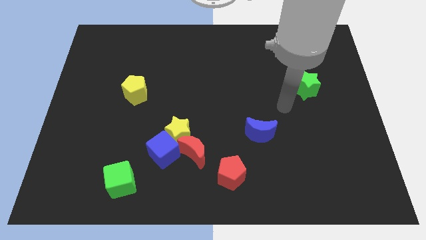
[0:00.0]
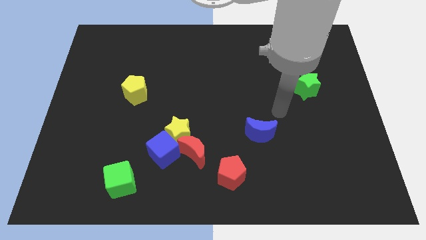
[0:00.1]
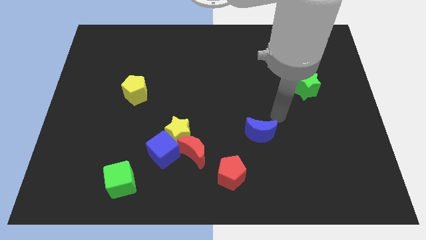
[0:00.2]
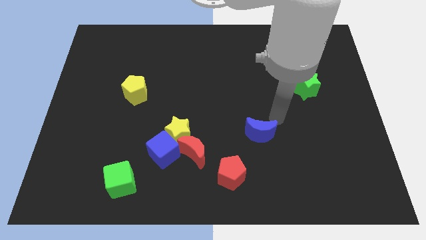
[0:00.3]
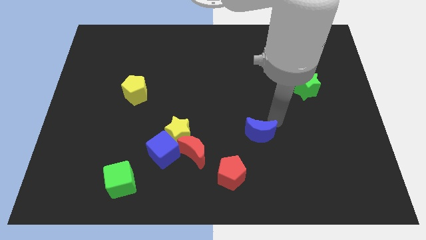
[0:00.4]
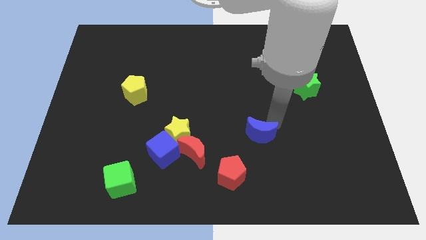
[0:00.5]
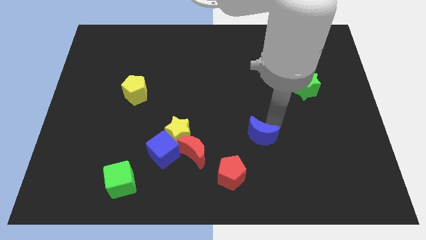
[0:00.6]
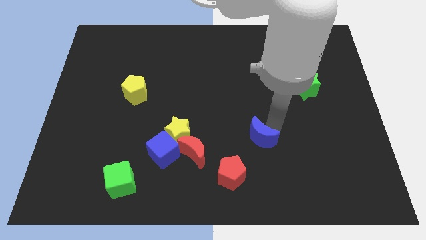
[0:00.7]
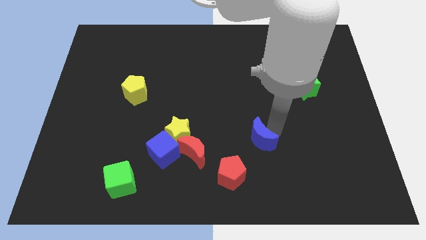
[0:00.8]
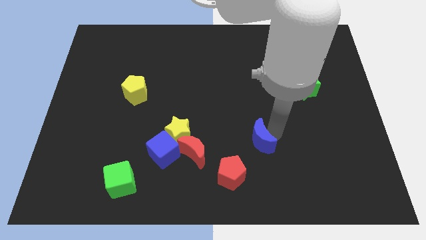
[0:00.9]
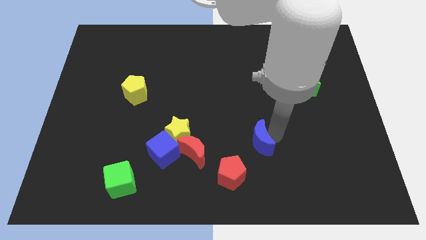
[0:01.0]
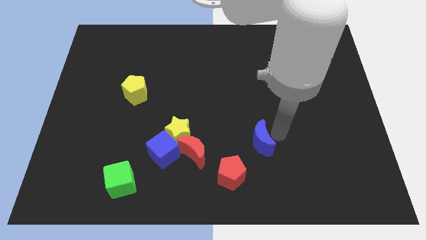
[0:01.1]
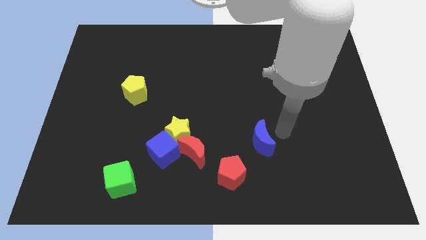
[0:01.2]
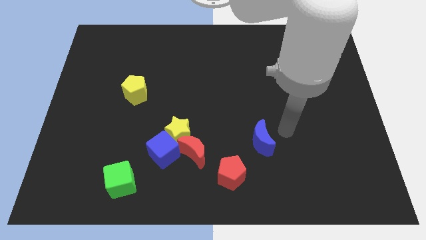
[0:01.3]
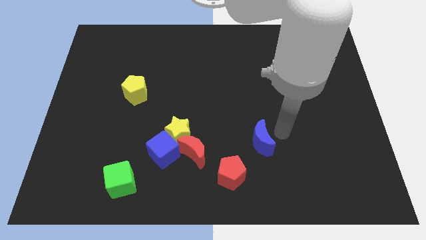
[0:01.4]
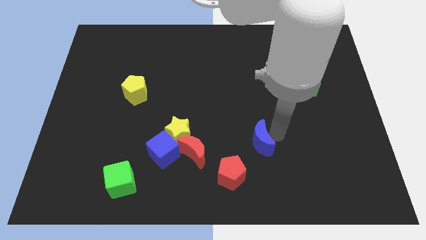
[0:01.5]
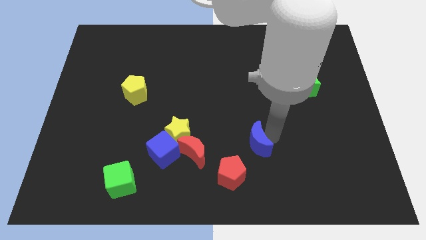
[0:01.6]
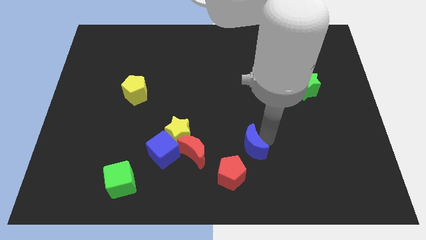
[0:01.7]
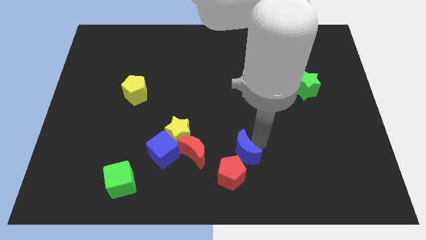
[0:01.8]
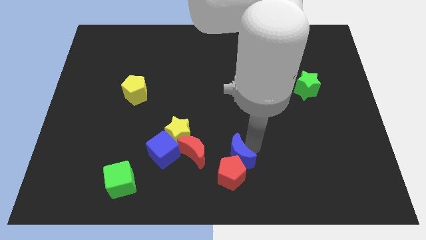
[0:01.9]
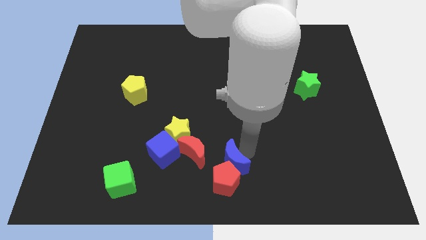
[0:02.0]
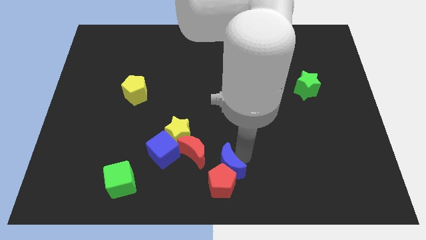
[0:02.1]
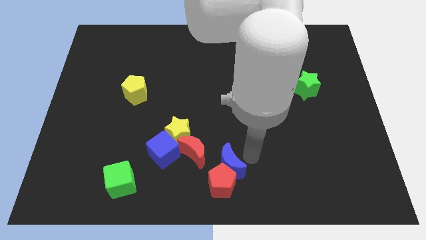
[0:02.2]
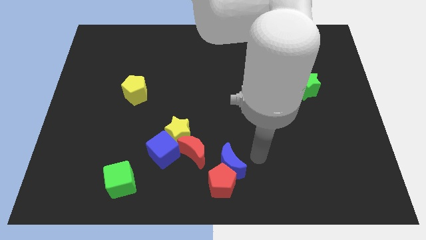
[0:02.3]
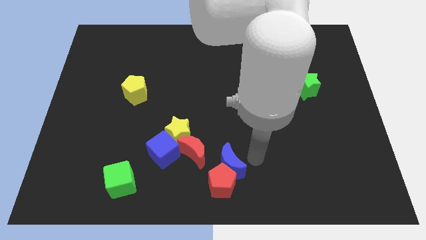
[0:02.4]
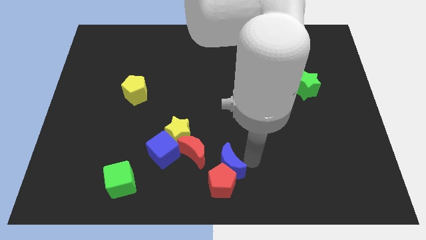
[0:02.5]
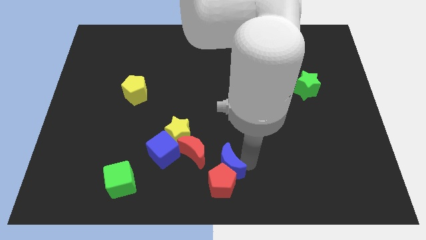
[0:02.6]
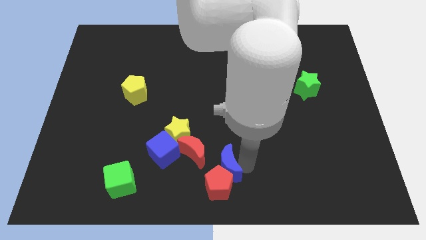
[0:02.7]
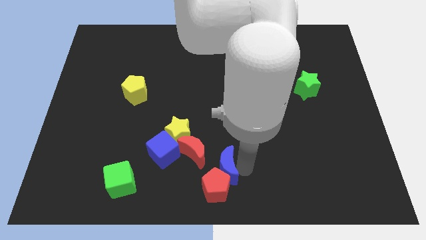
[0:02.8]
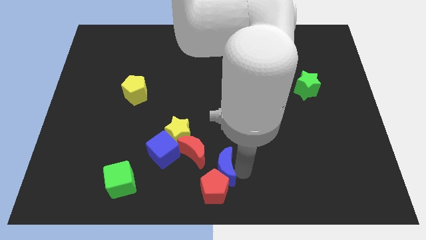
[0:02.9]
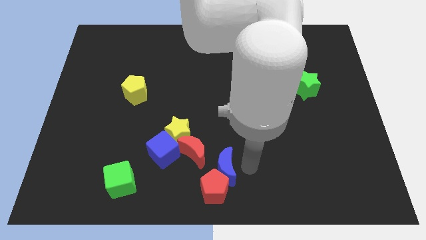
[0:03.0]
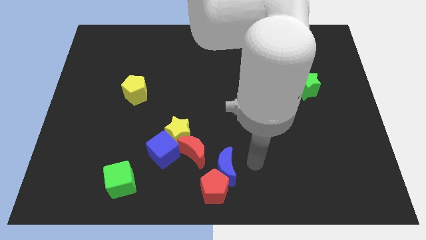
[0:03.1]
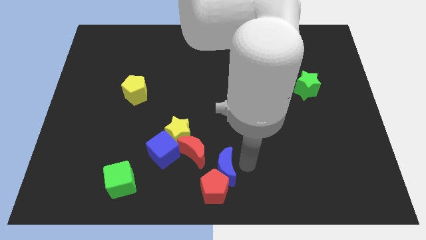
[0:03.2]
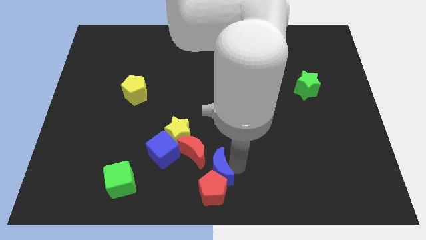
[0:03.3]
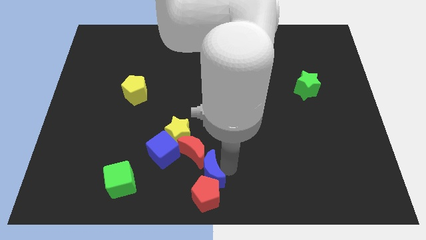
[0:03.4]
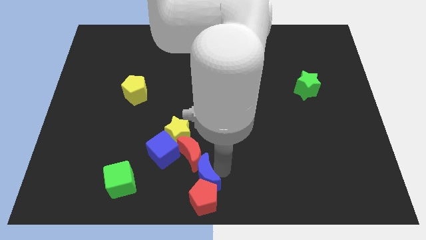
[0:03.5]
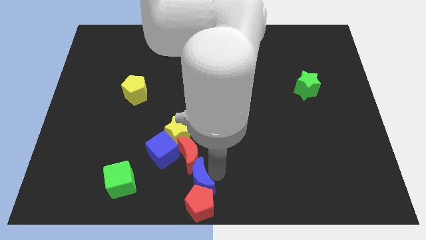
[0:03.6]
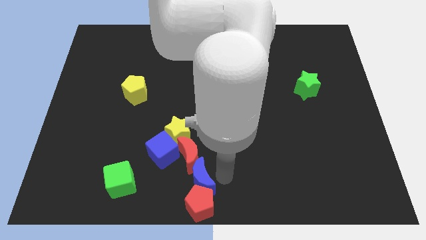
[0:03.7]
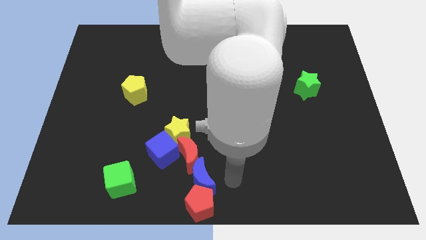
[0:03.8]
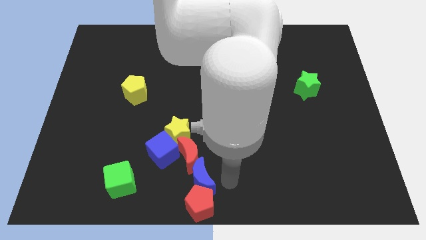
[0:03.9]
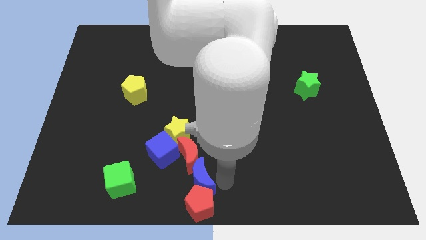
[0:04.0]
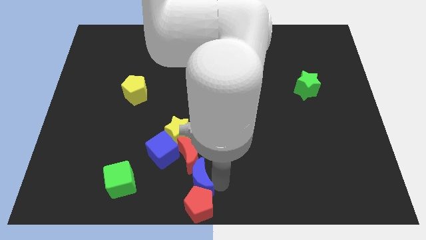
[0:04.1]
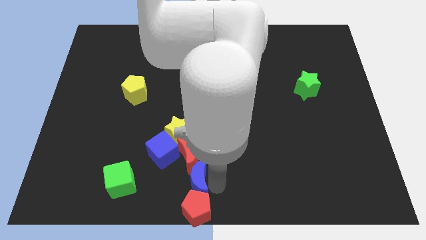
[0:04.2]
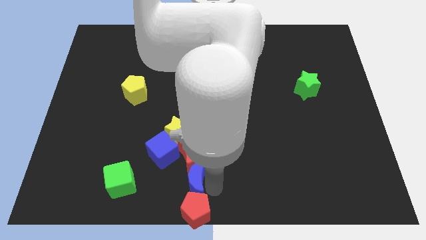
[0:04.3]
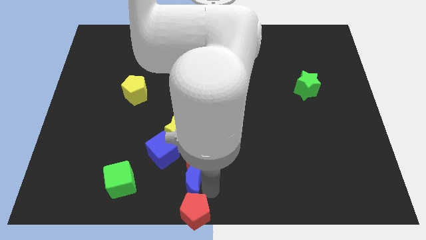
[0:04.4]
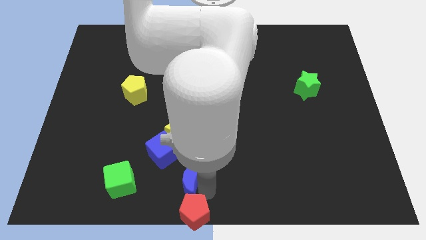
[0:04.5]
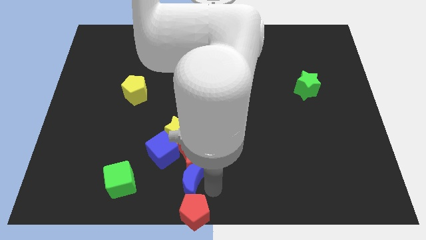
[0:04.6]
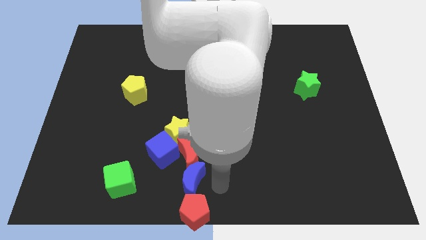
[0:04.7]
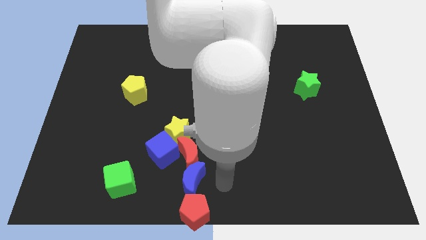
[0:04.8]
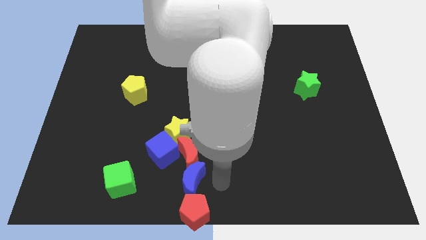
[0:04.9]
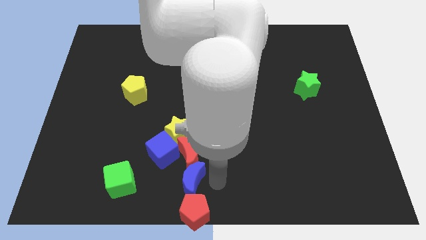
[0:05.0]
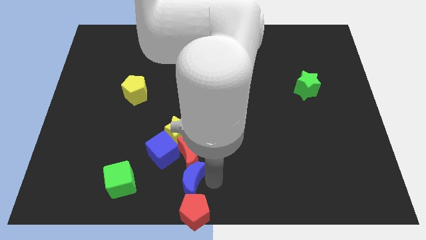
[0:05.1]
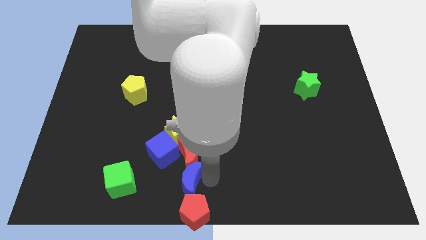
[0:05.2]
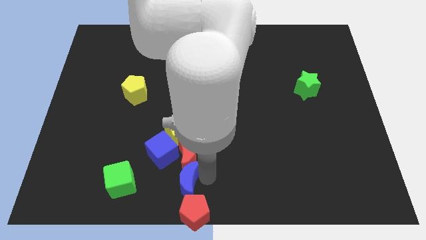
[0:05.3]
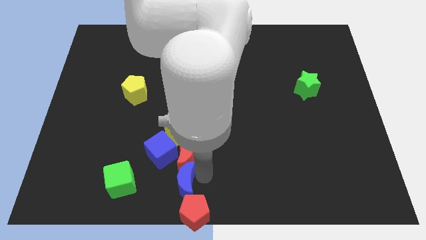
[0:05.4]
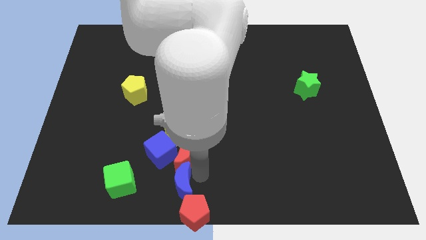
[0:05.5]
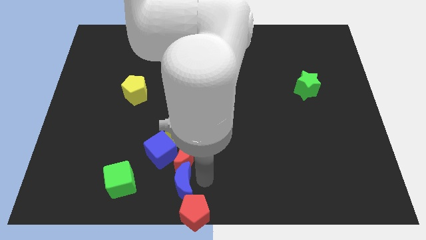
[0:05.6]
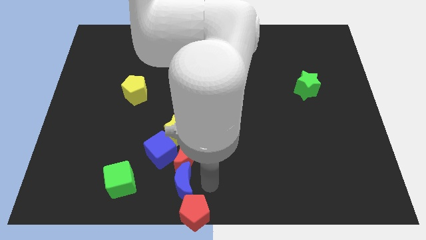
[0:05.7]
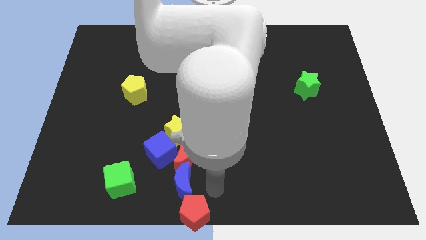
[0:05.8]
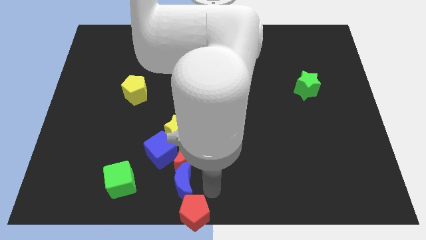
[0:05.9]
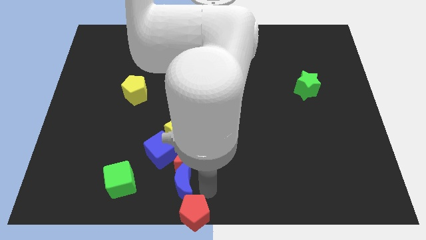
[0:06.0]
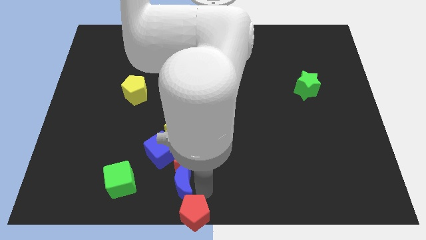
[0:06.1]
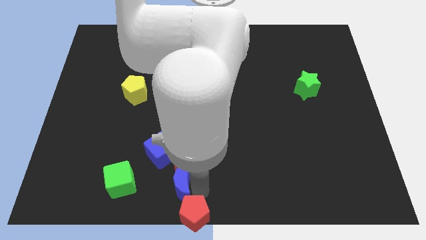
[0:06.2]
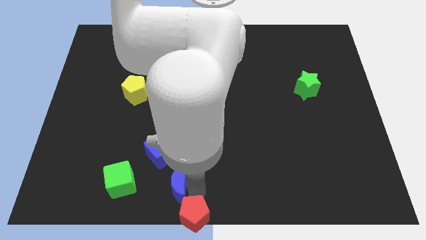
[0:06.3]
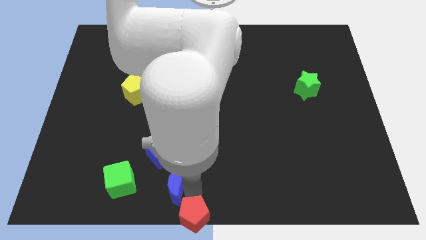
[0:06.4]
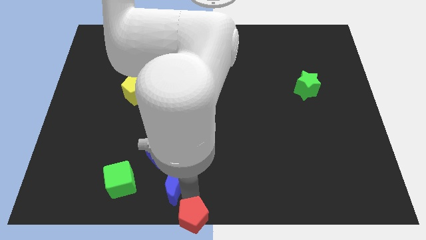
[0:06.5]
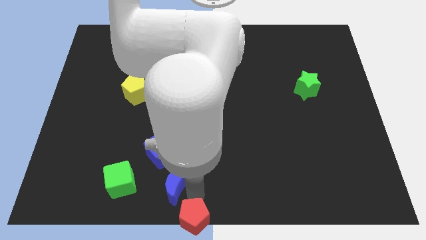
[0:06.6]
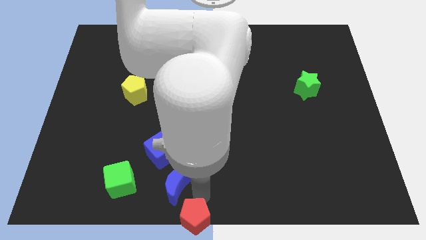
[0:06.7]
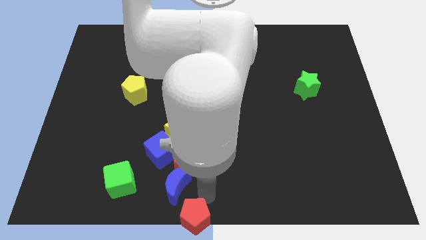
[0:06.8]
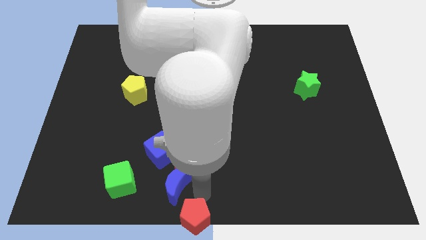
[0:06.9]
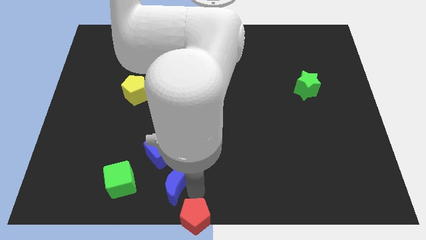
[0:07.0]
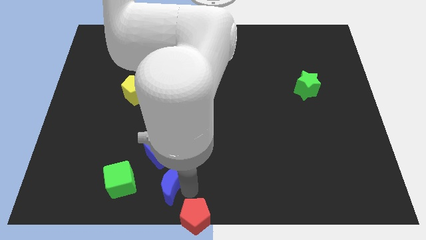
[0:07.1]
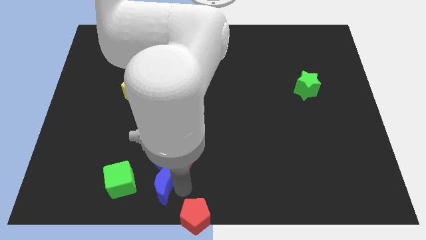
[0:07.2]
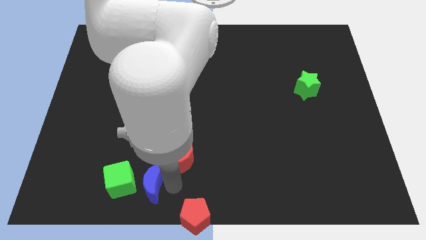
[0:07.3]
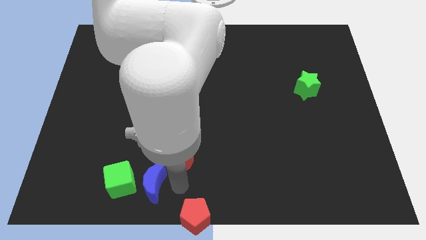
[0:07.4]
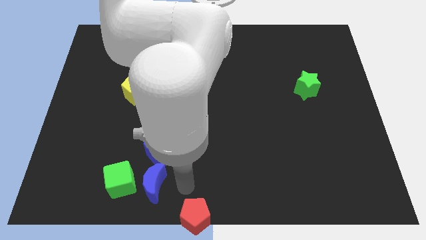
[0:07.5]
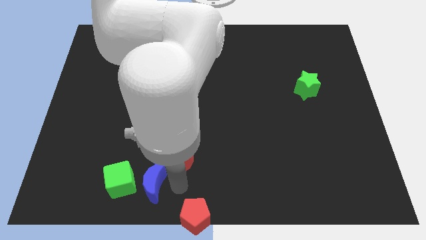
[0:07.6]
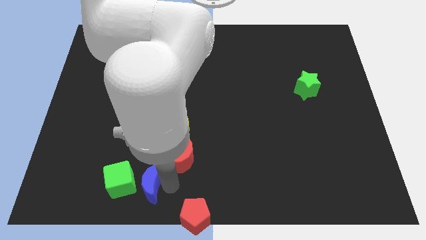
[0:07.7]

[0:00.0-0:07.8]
slide the blue moon to the green cube
